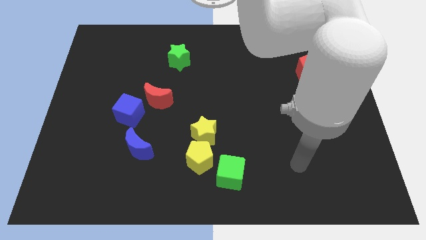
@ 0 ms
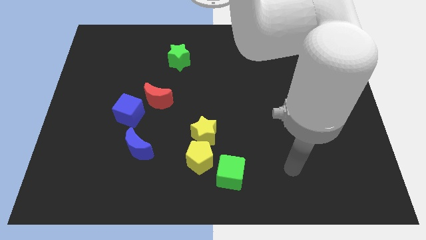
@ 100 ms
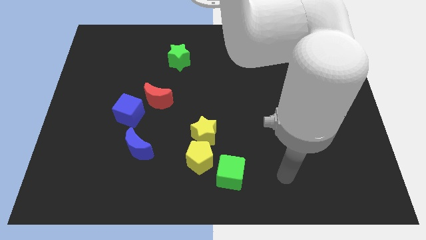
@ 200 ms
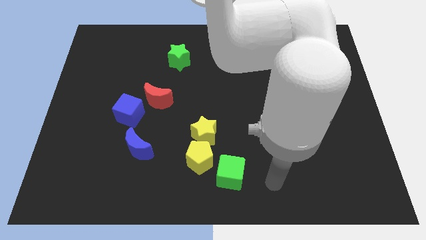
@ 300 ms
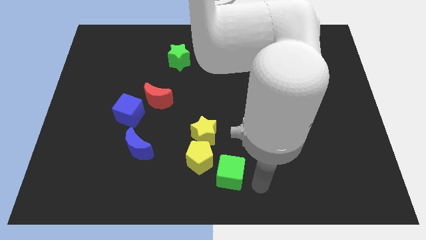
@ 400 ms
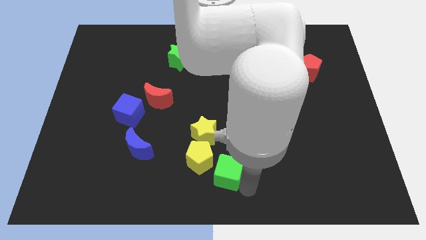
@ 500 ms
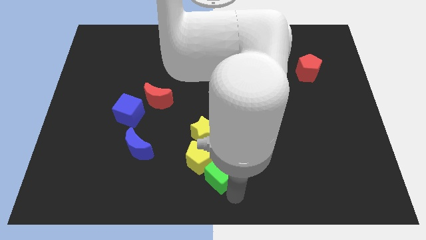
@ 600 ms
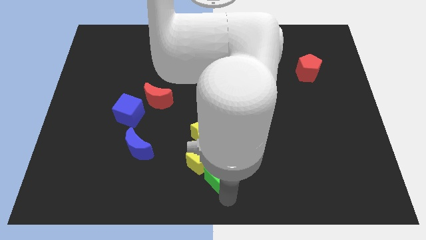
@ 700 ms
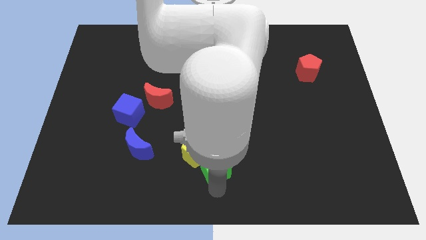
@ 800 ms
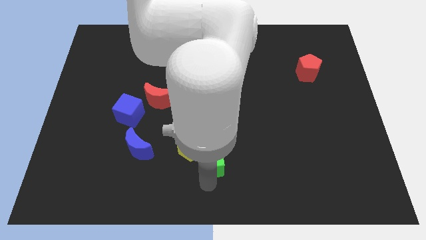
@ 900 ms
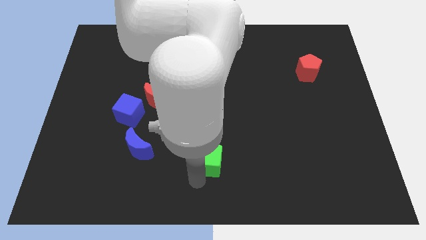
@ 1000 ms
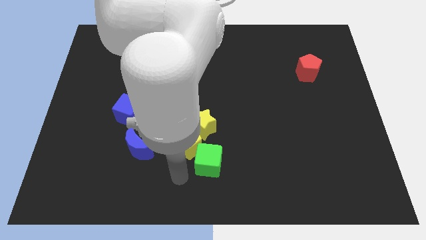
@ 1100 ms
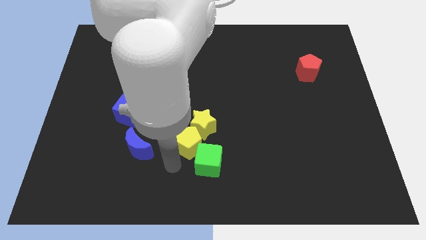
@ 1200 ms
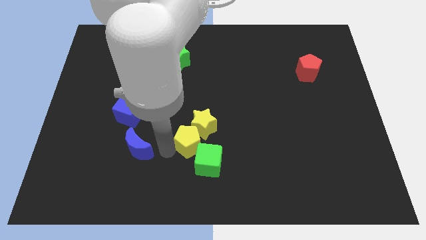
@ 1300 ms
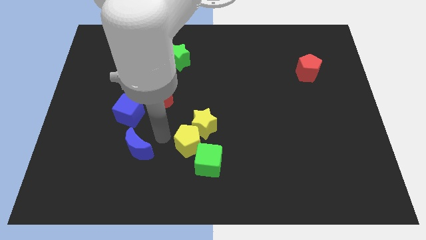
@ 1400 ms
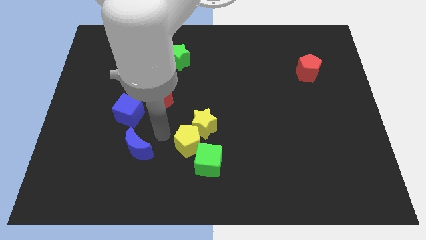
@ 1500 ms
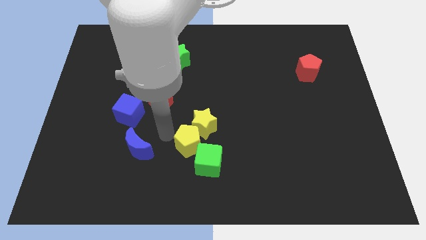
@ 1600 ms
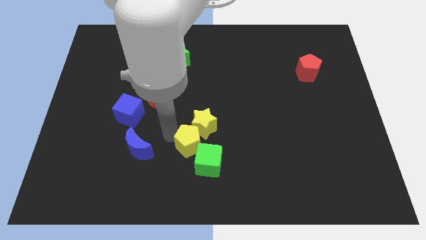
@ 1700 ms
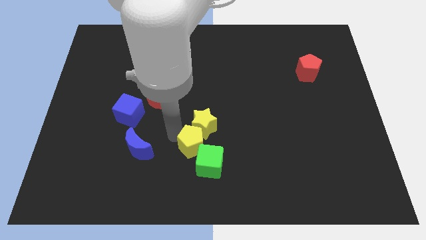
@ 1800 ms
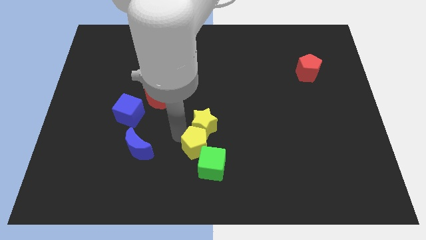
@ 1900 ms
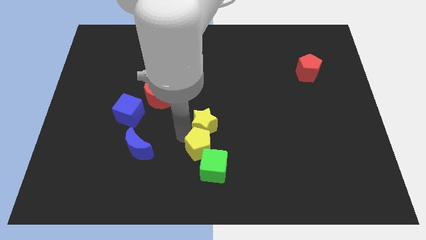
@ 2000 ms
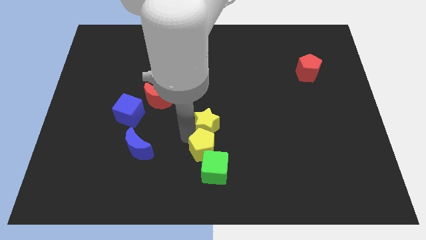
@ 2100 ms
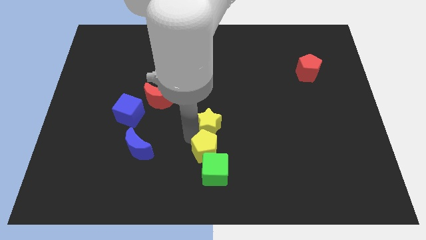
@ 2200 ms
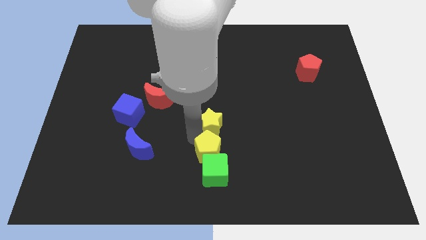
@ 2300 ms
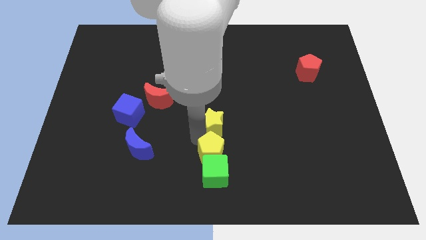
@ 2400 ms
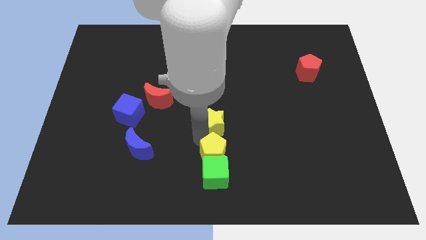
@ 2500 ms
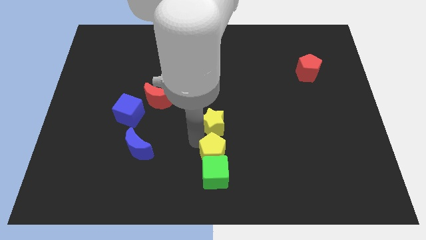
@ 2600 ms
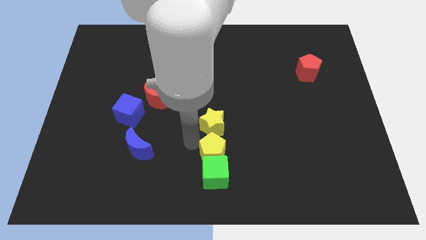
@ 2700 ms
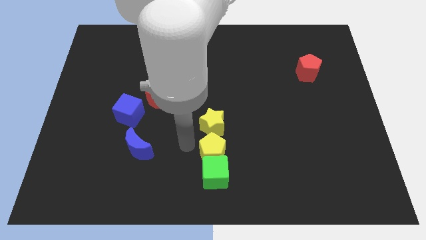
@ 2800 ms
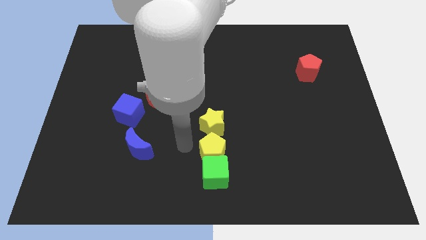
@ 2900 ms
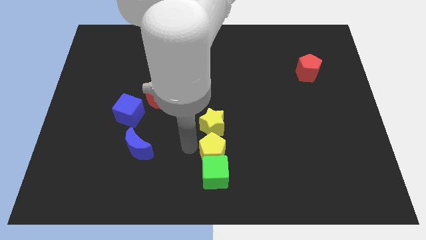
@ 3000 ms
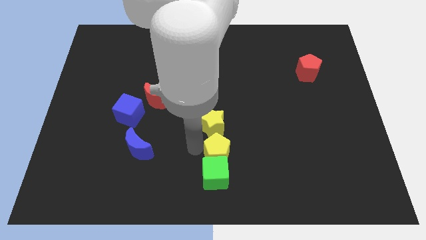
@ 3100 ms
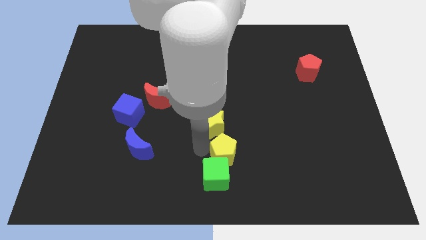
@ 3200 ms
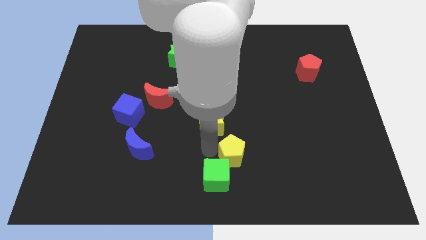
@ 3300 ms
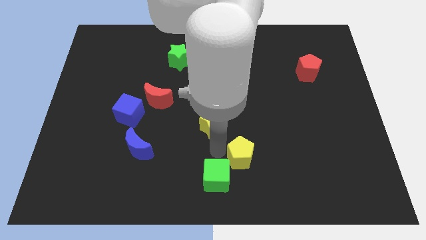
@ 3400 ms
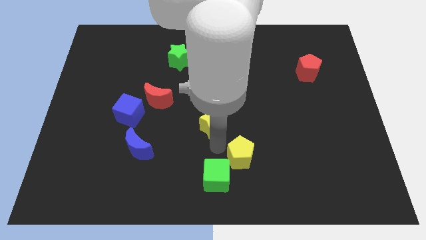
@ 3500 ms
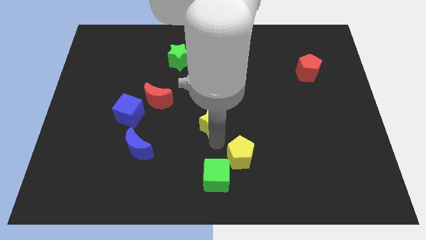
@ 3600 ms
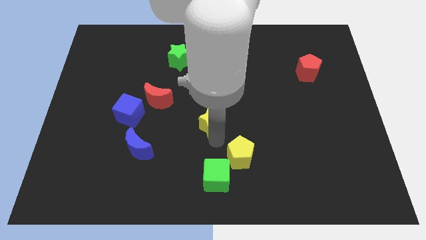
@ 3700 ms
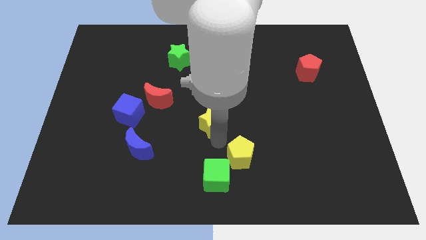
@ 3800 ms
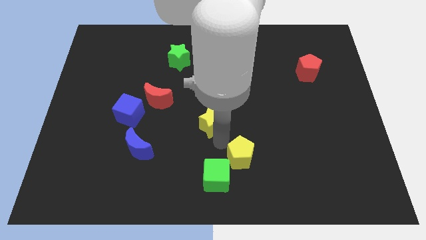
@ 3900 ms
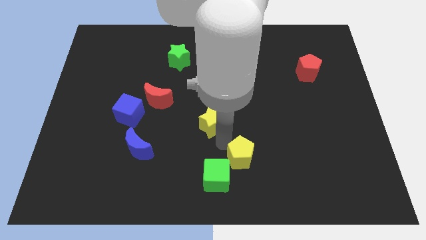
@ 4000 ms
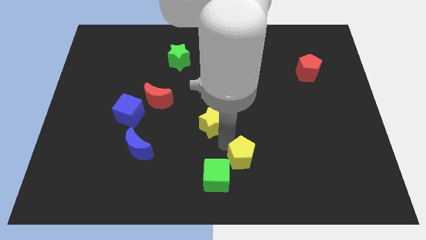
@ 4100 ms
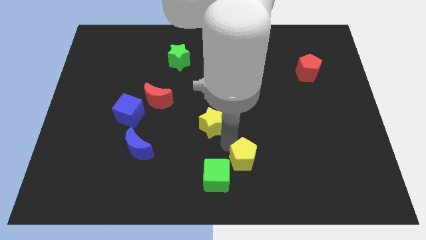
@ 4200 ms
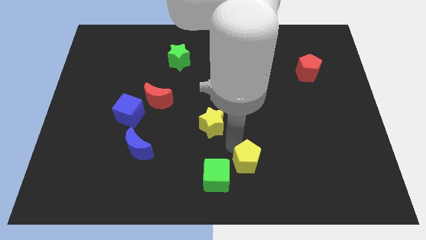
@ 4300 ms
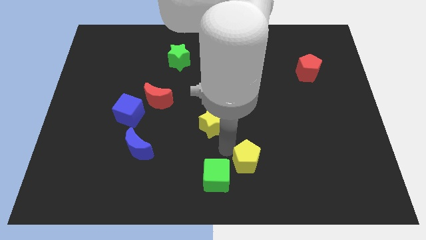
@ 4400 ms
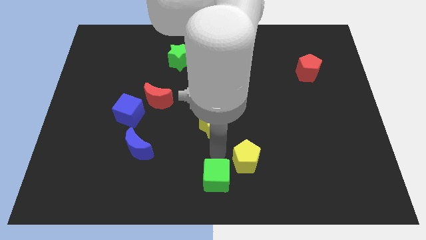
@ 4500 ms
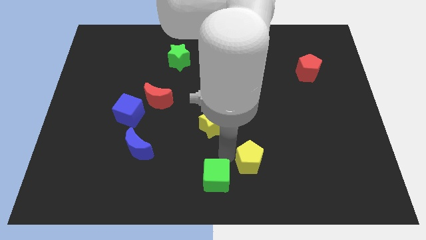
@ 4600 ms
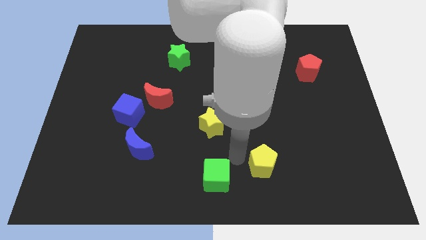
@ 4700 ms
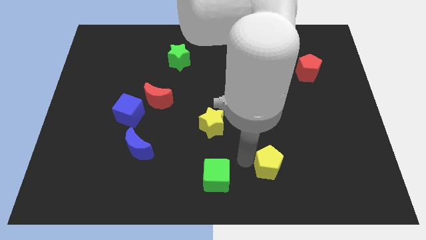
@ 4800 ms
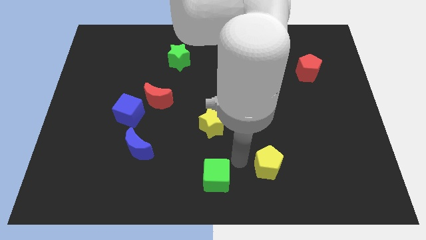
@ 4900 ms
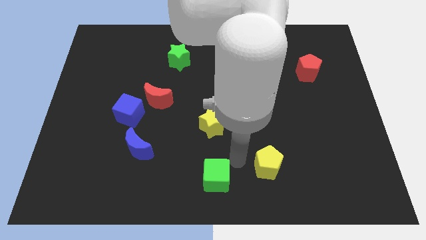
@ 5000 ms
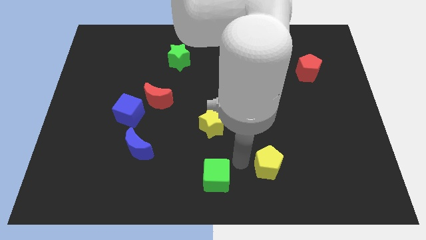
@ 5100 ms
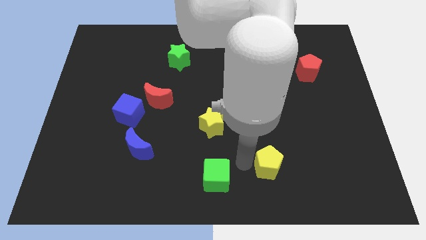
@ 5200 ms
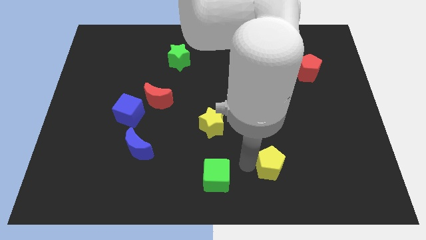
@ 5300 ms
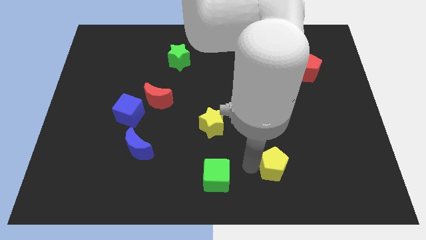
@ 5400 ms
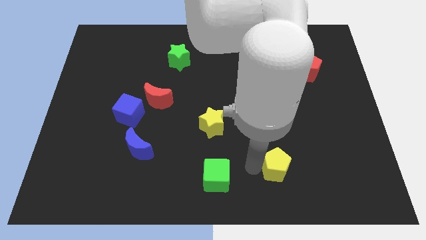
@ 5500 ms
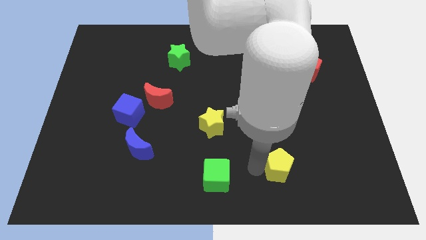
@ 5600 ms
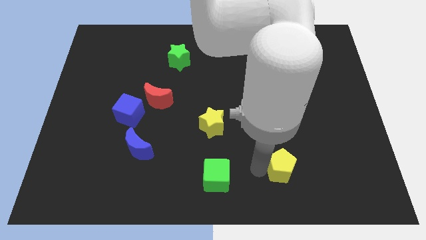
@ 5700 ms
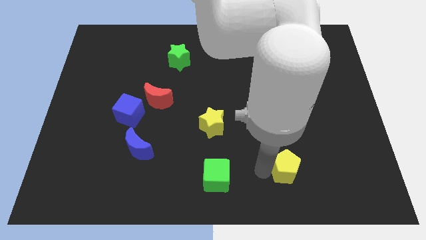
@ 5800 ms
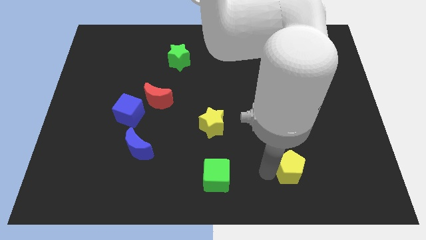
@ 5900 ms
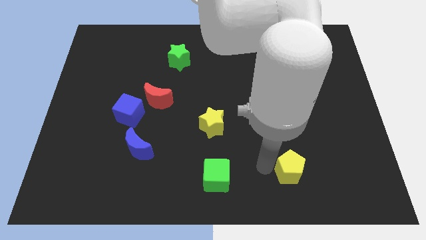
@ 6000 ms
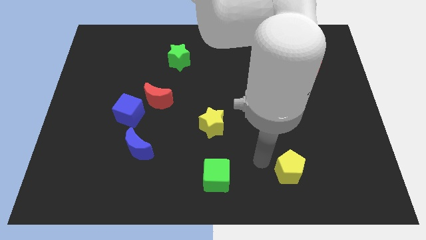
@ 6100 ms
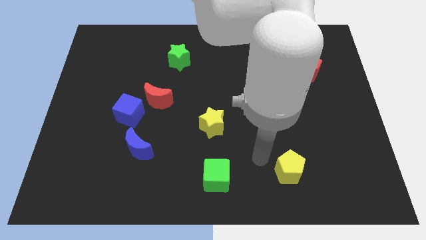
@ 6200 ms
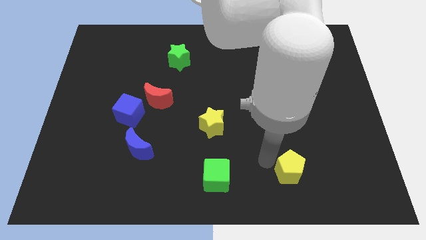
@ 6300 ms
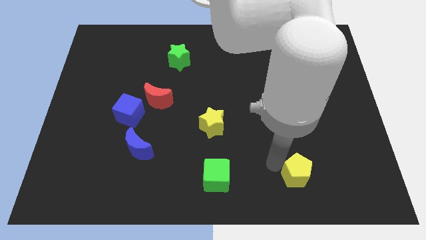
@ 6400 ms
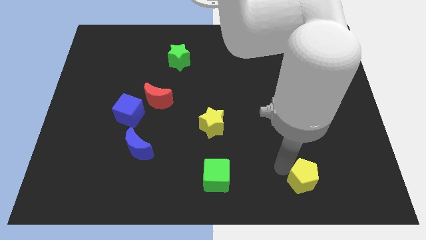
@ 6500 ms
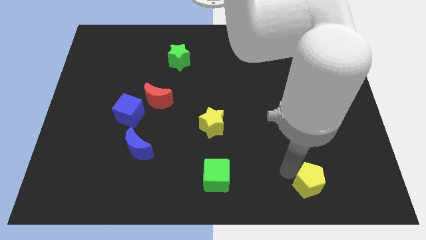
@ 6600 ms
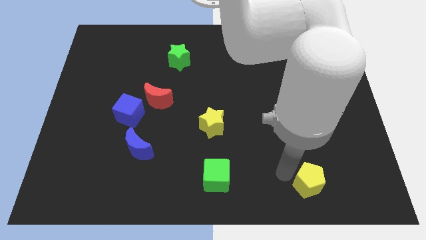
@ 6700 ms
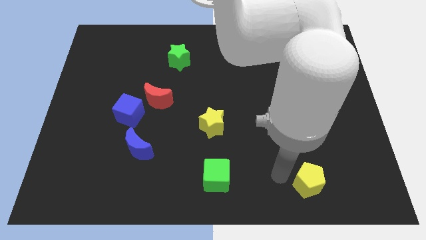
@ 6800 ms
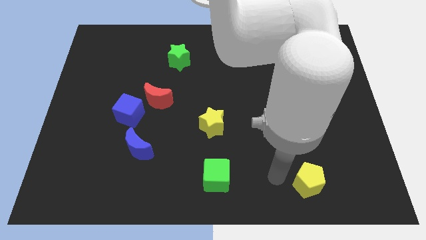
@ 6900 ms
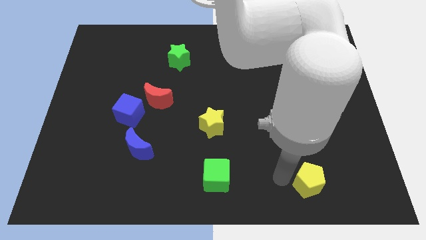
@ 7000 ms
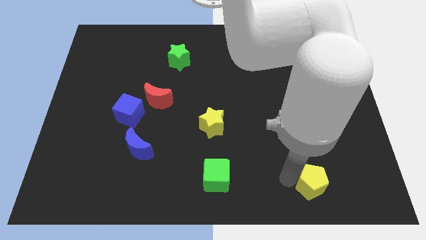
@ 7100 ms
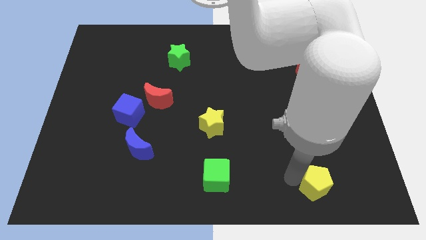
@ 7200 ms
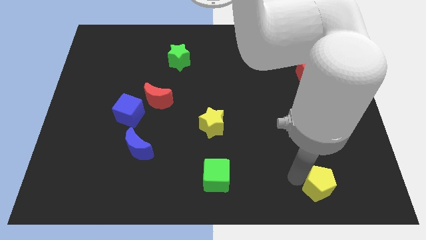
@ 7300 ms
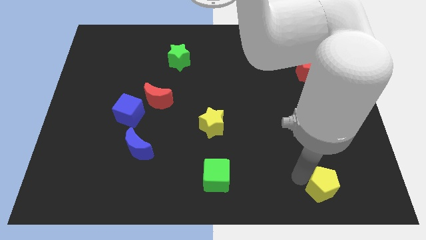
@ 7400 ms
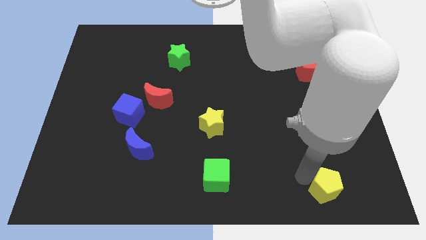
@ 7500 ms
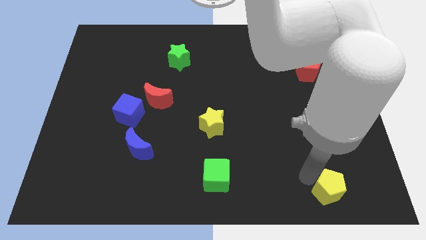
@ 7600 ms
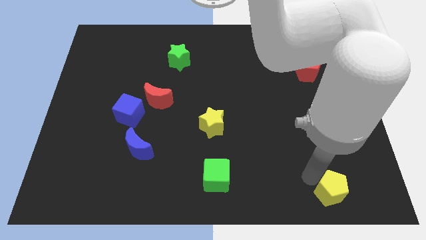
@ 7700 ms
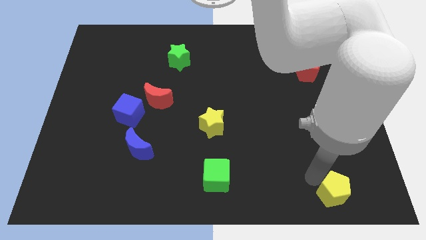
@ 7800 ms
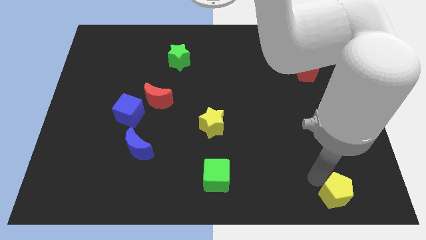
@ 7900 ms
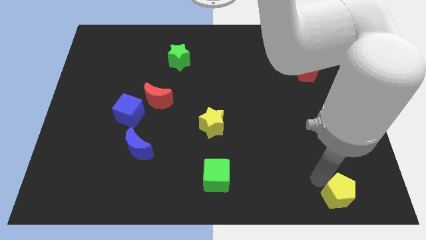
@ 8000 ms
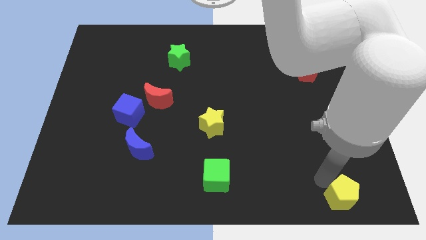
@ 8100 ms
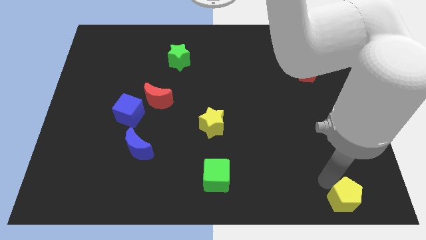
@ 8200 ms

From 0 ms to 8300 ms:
move the yellow pentagon to the lower right corner
